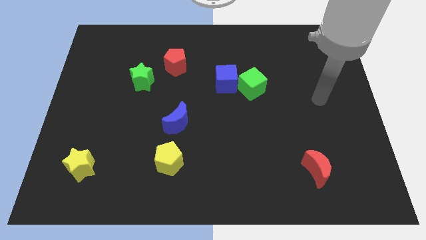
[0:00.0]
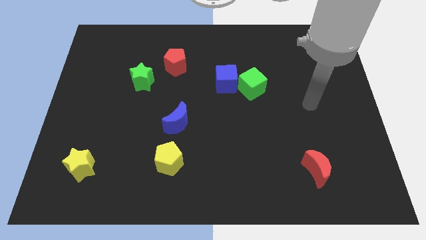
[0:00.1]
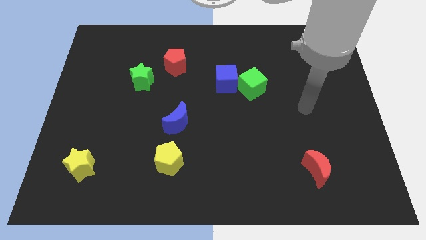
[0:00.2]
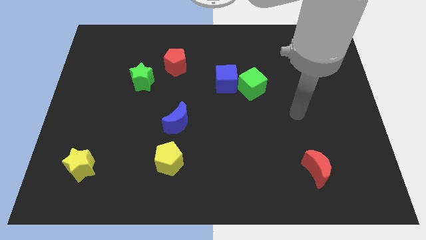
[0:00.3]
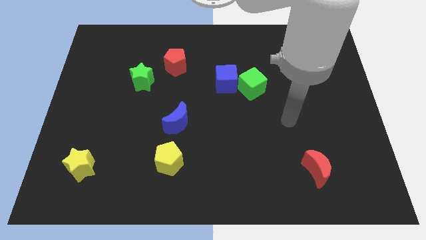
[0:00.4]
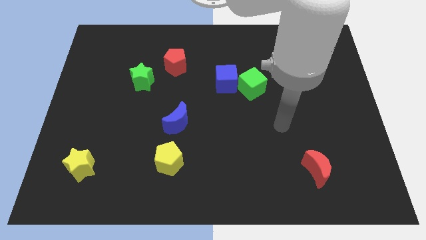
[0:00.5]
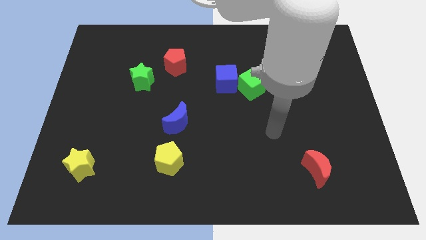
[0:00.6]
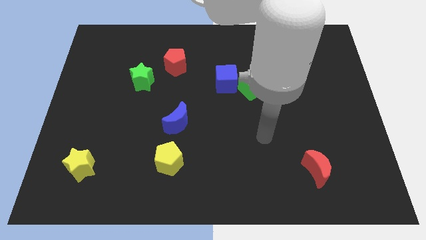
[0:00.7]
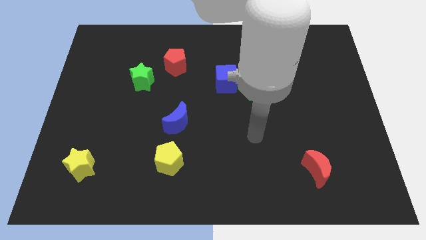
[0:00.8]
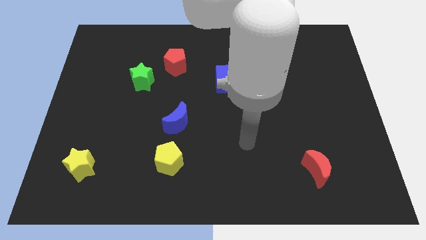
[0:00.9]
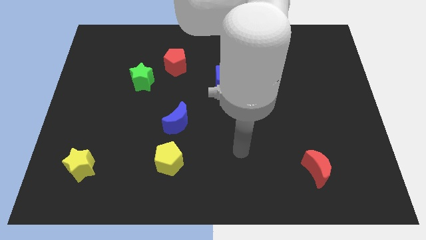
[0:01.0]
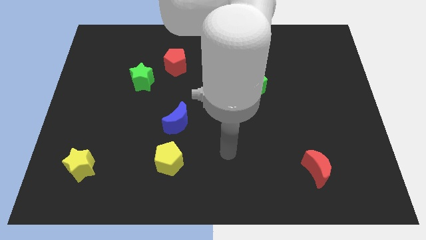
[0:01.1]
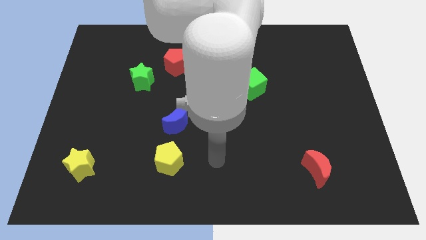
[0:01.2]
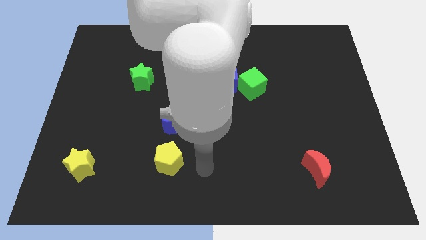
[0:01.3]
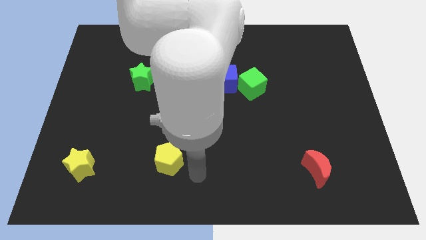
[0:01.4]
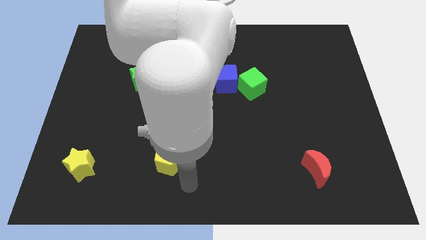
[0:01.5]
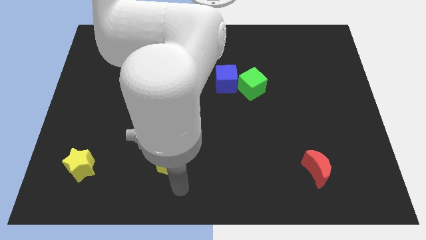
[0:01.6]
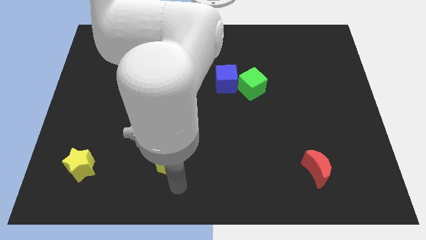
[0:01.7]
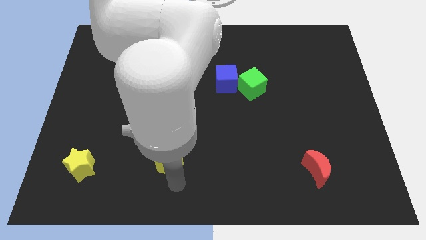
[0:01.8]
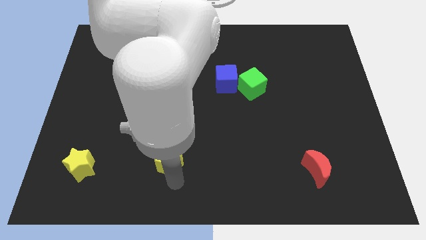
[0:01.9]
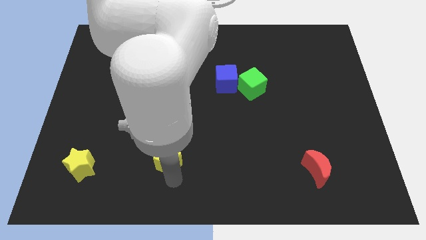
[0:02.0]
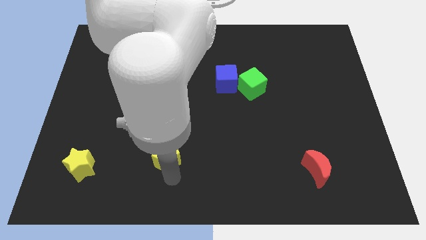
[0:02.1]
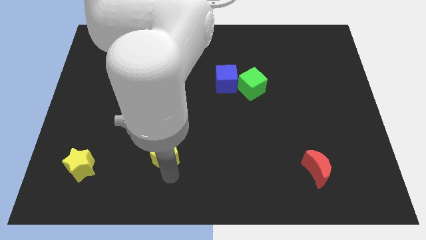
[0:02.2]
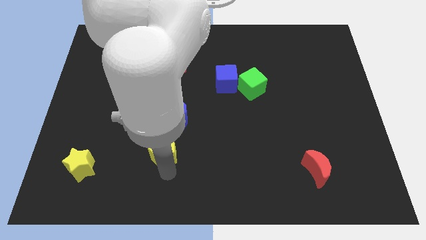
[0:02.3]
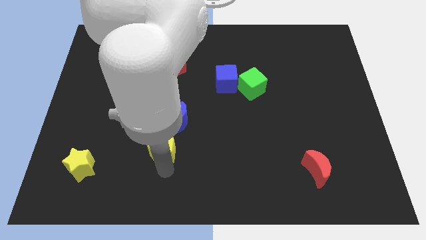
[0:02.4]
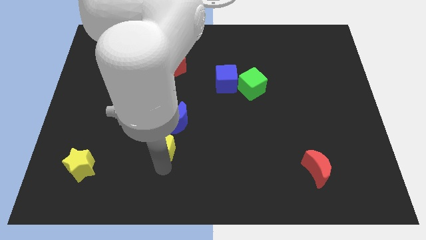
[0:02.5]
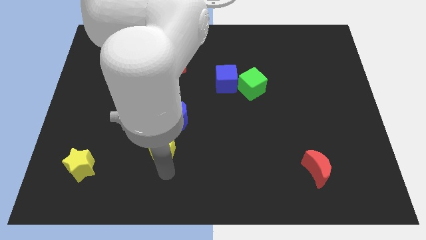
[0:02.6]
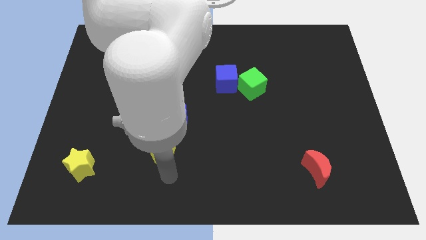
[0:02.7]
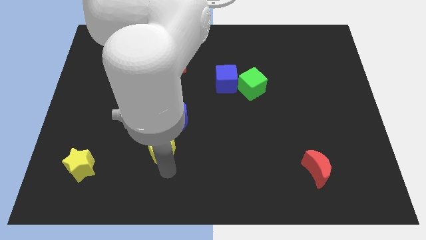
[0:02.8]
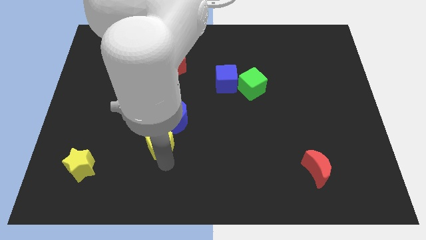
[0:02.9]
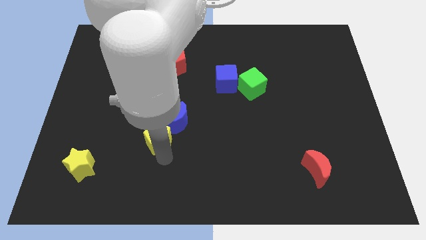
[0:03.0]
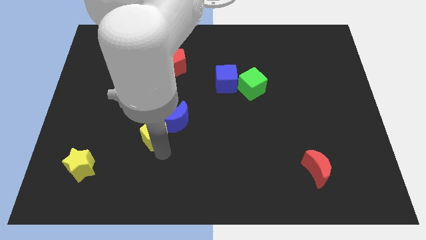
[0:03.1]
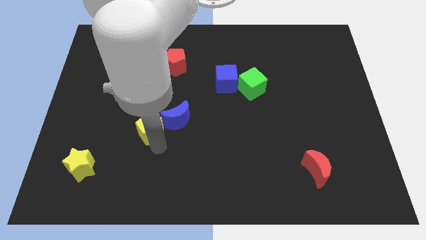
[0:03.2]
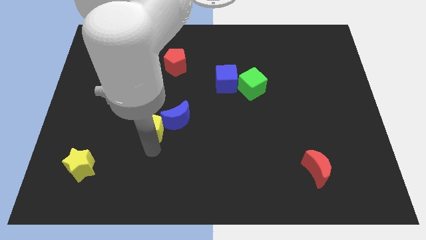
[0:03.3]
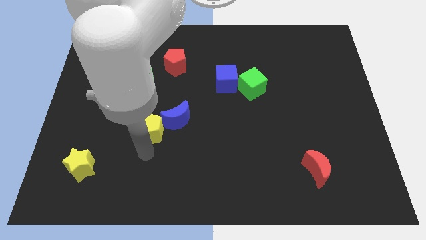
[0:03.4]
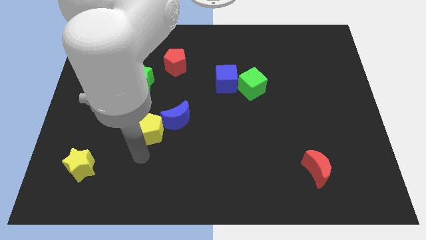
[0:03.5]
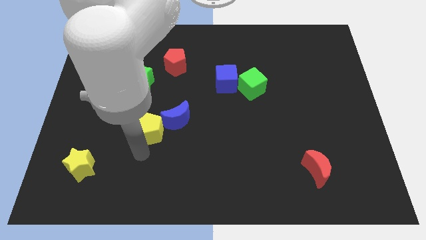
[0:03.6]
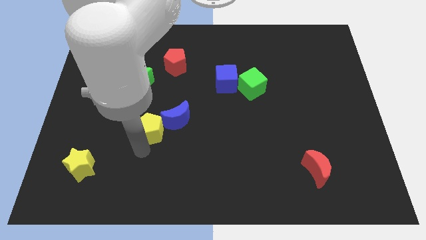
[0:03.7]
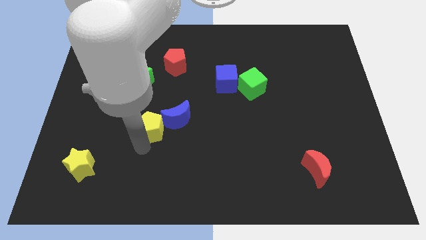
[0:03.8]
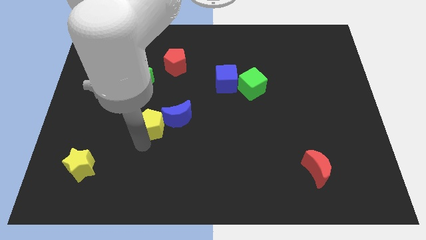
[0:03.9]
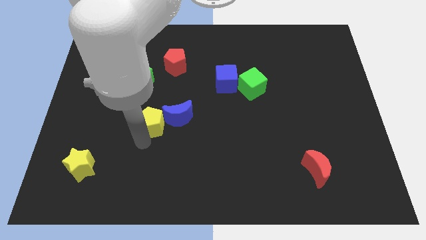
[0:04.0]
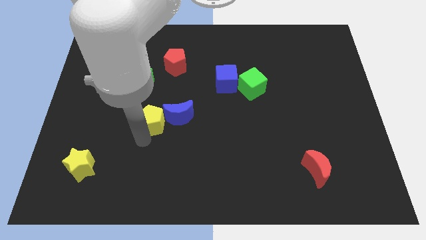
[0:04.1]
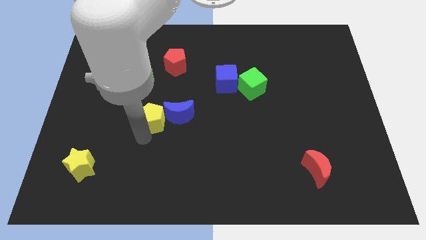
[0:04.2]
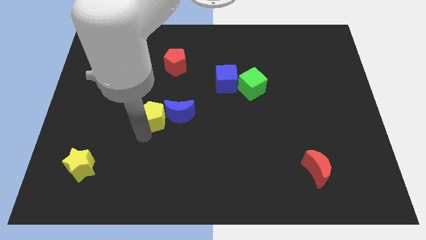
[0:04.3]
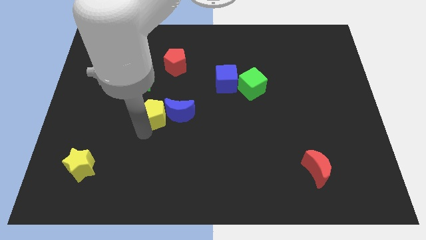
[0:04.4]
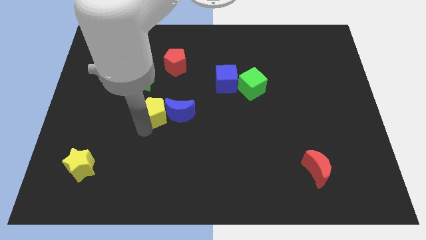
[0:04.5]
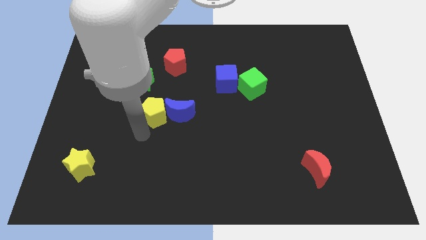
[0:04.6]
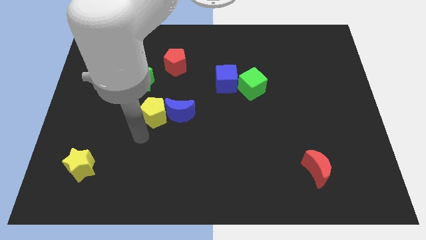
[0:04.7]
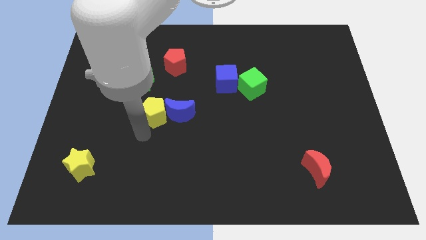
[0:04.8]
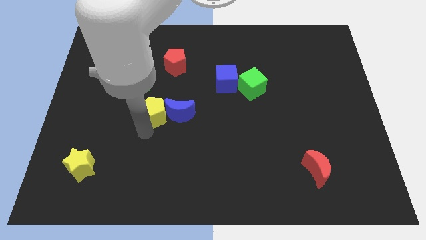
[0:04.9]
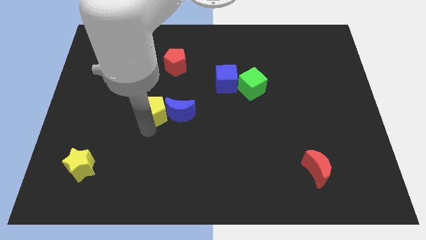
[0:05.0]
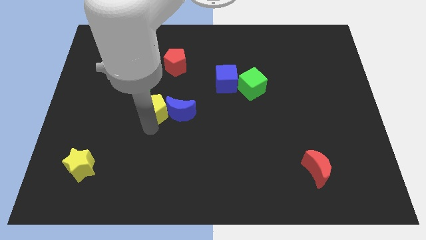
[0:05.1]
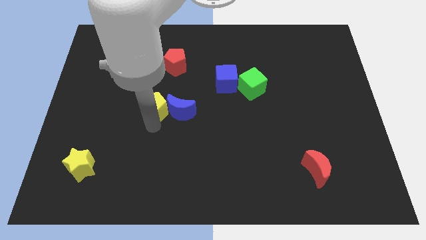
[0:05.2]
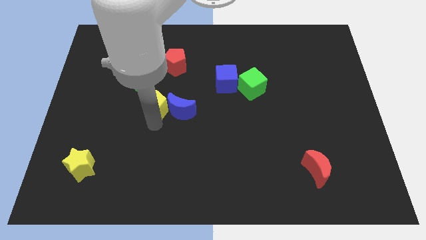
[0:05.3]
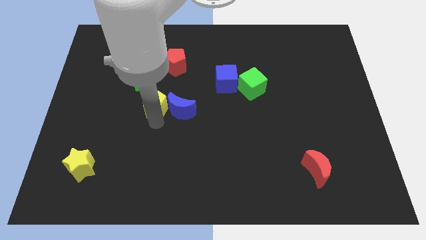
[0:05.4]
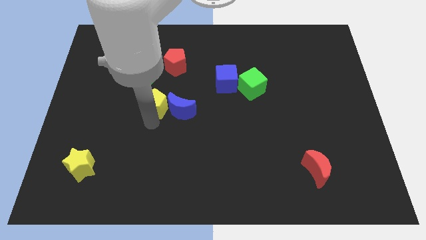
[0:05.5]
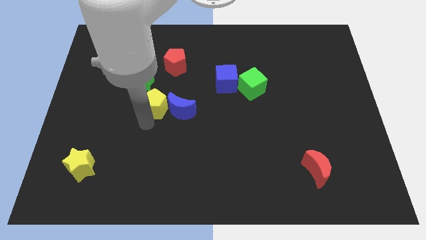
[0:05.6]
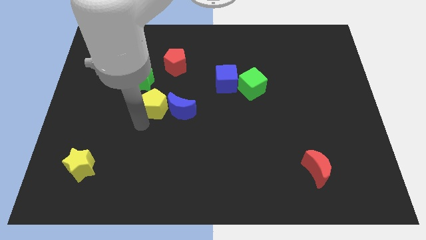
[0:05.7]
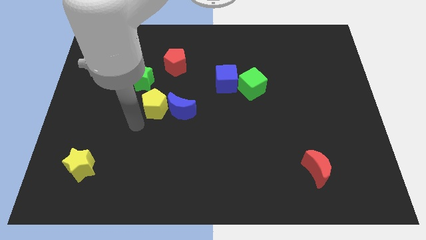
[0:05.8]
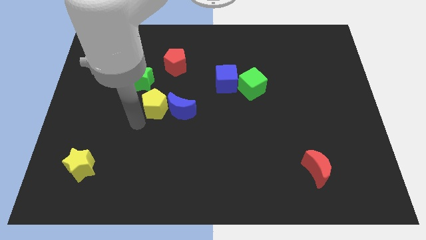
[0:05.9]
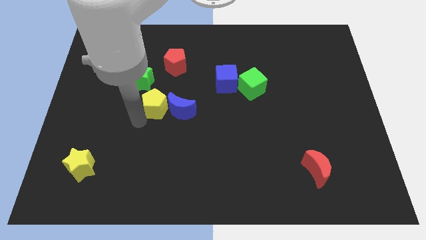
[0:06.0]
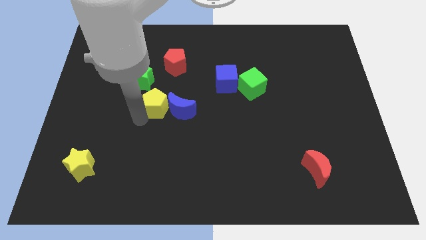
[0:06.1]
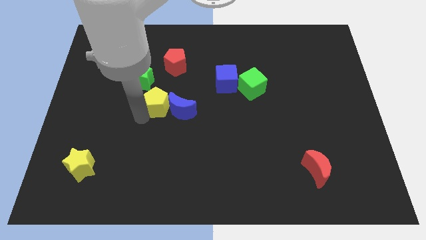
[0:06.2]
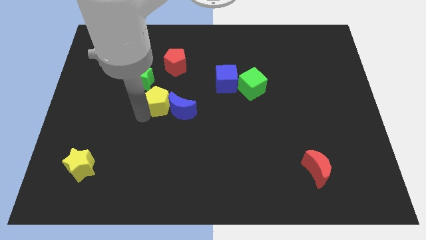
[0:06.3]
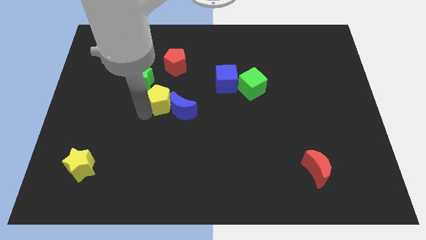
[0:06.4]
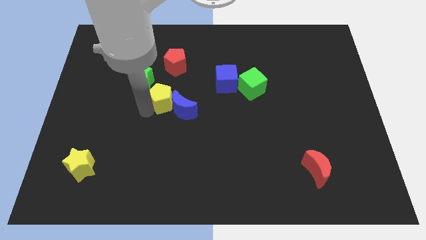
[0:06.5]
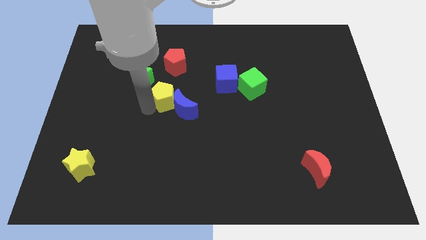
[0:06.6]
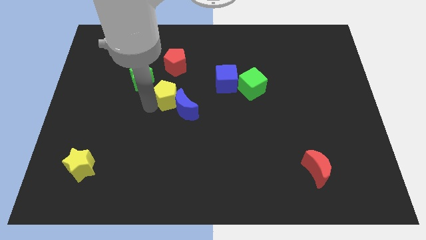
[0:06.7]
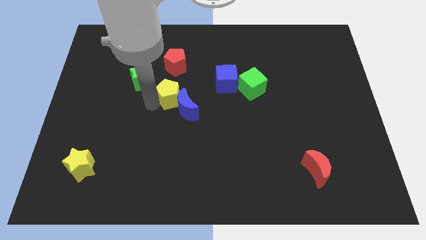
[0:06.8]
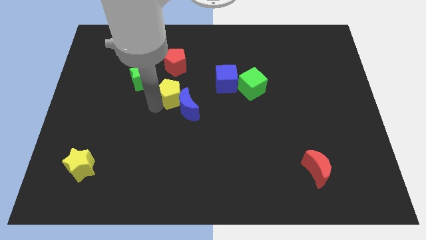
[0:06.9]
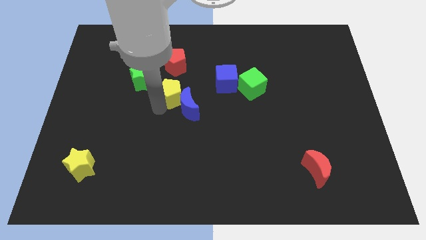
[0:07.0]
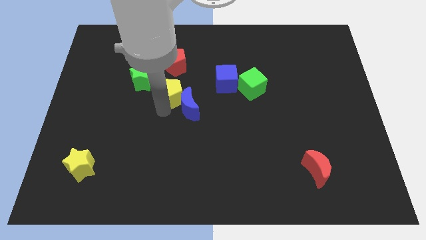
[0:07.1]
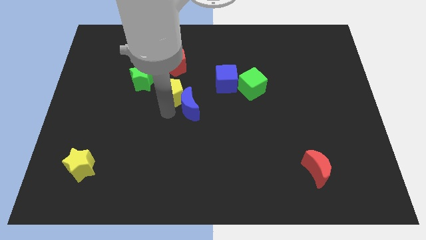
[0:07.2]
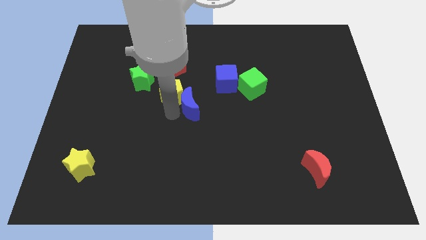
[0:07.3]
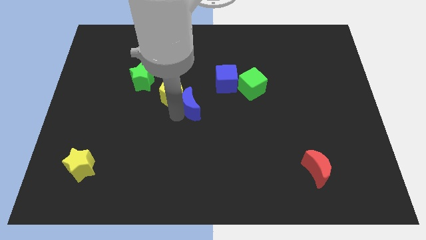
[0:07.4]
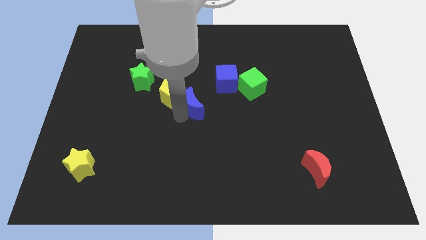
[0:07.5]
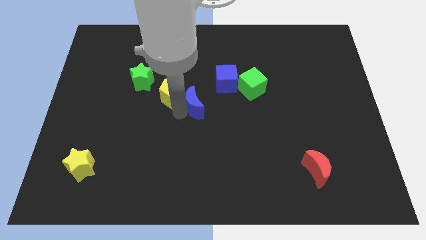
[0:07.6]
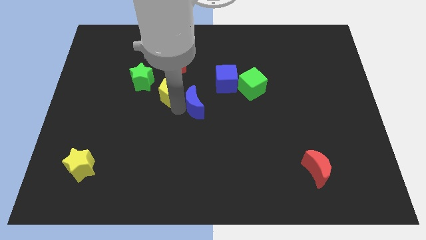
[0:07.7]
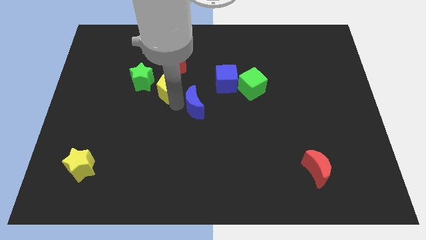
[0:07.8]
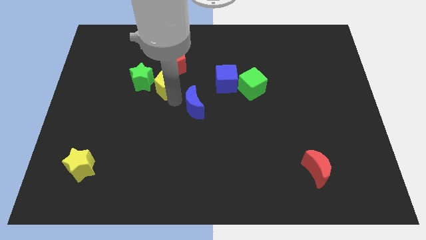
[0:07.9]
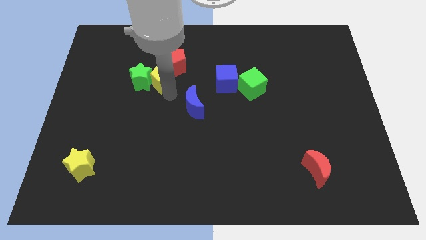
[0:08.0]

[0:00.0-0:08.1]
slide the yellow pentagon close to the red pentagon

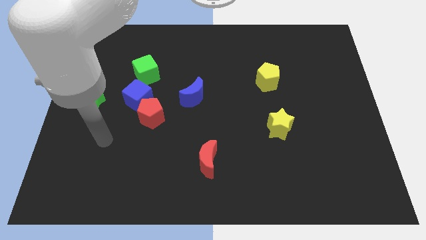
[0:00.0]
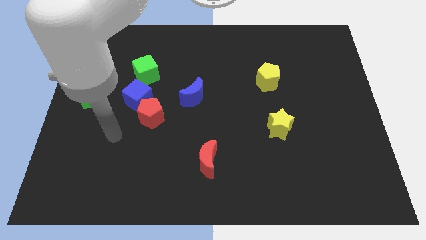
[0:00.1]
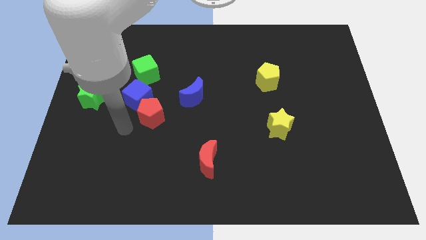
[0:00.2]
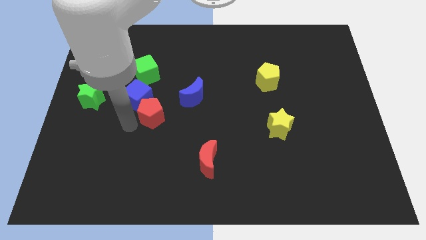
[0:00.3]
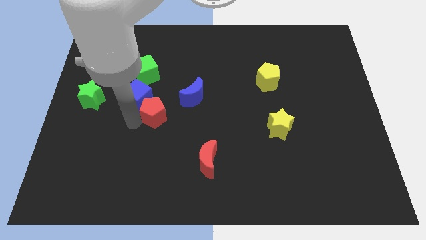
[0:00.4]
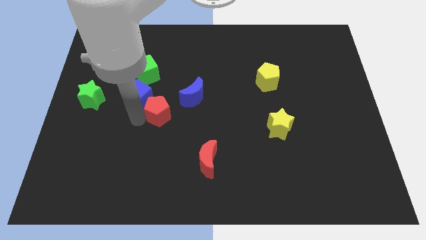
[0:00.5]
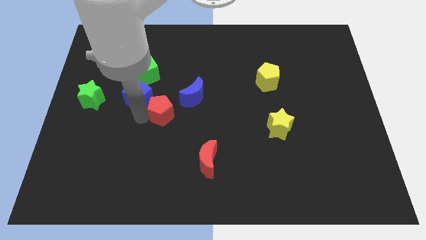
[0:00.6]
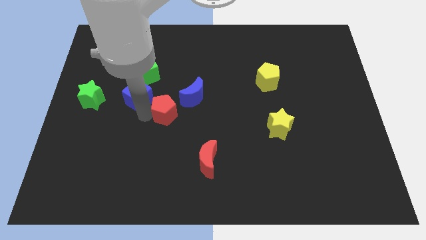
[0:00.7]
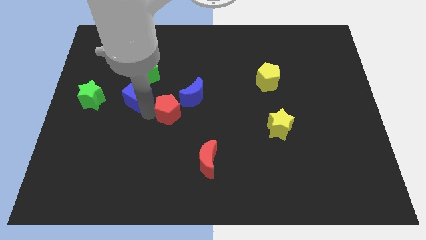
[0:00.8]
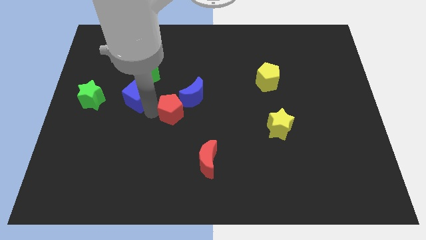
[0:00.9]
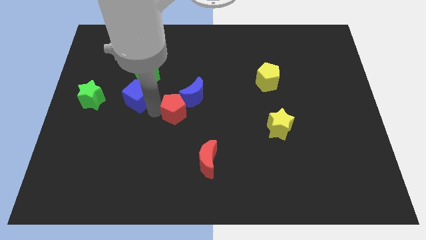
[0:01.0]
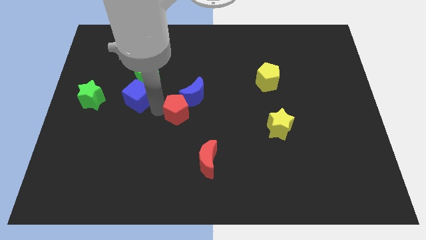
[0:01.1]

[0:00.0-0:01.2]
slide the red pentagon close to the blue moon
